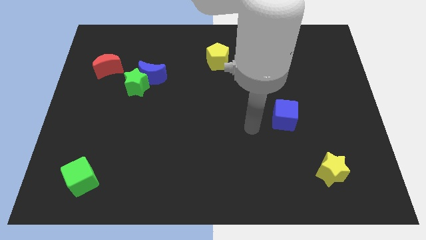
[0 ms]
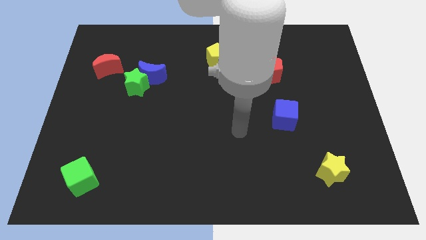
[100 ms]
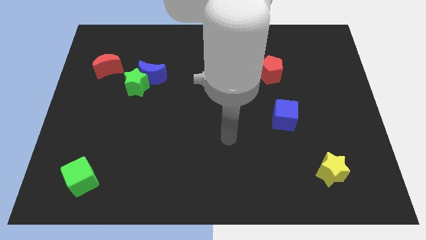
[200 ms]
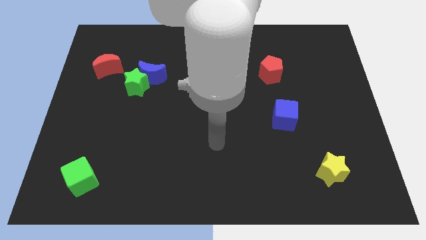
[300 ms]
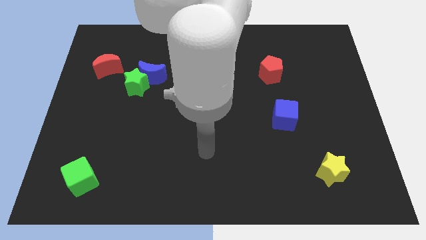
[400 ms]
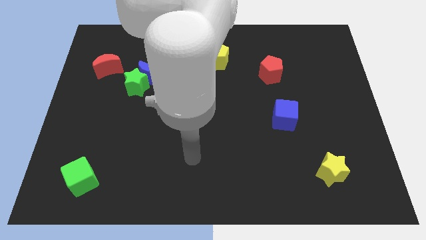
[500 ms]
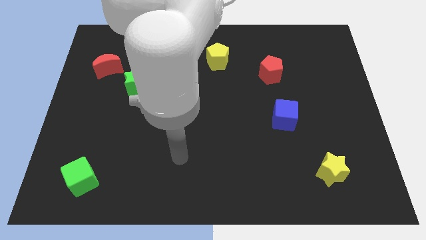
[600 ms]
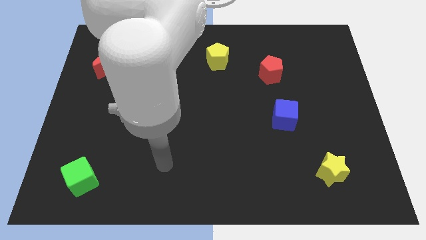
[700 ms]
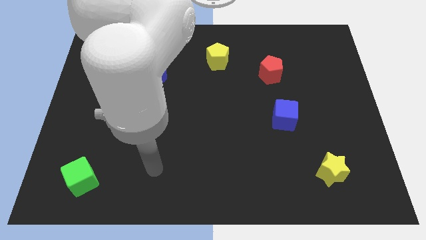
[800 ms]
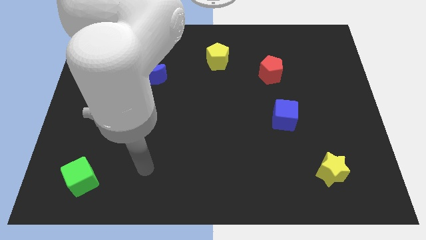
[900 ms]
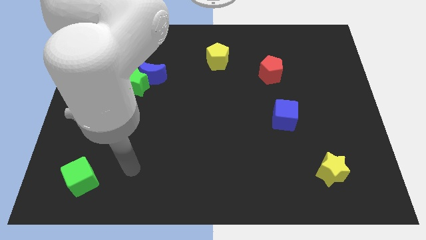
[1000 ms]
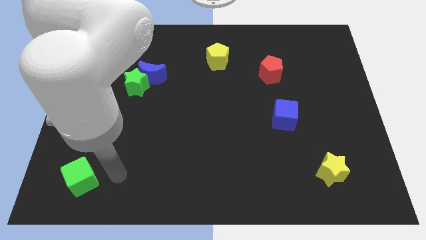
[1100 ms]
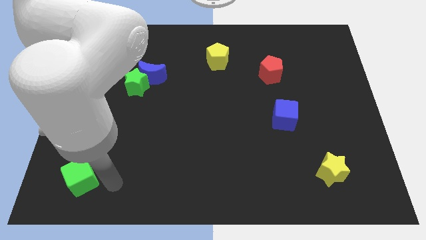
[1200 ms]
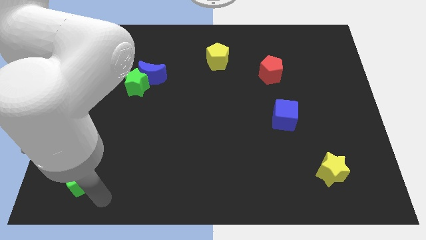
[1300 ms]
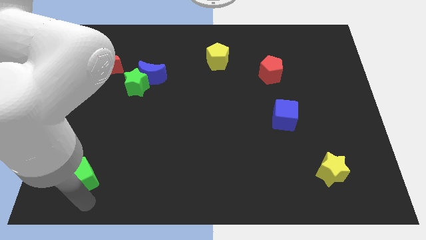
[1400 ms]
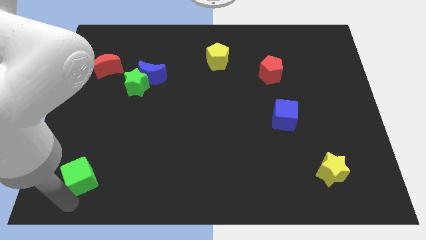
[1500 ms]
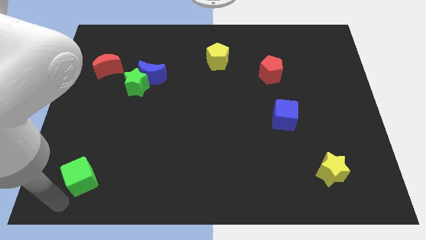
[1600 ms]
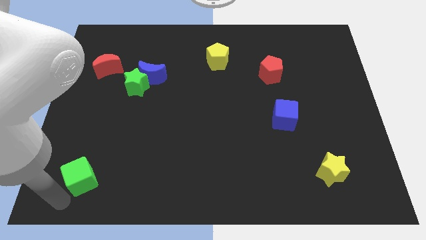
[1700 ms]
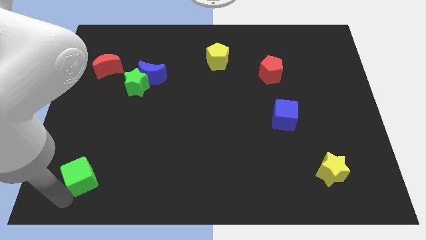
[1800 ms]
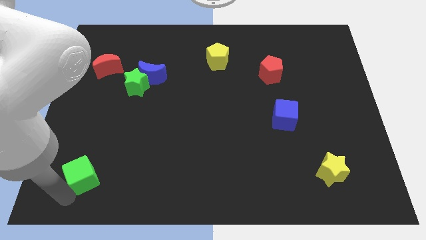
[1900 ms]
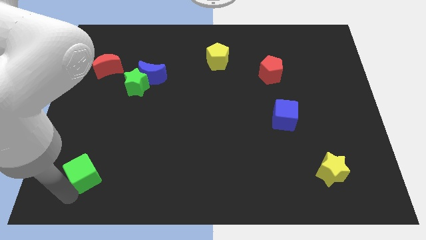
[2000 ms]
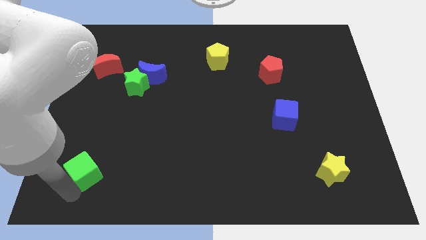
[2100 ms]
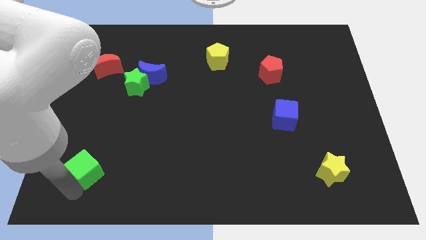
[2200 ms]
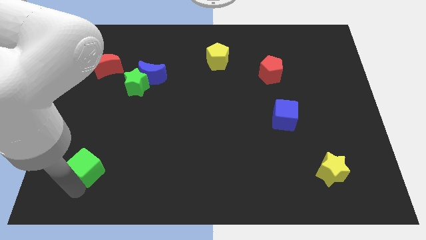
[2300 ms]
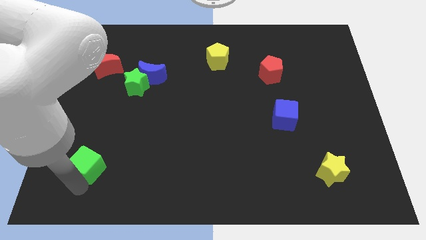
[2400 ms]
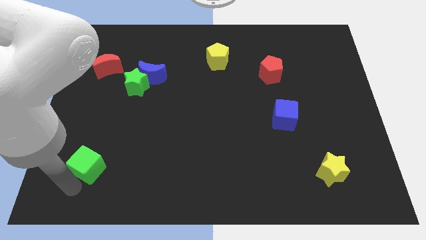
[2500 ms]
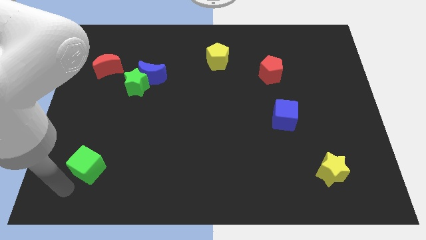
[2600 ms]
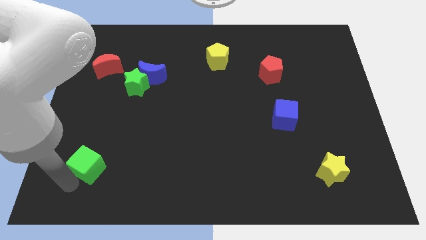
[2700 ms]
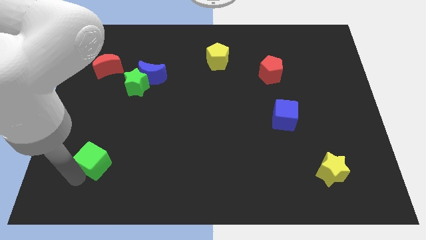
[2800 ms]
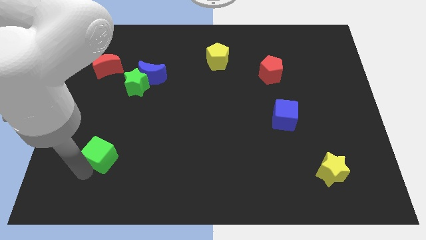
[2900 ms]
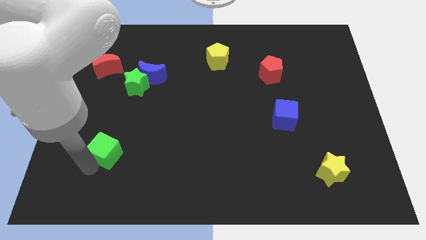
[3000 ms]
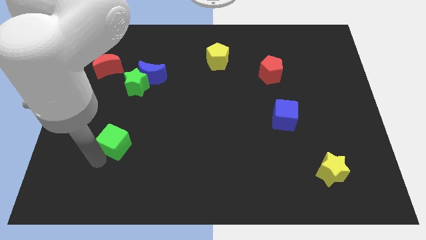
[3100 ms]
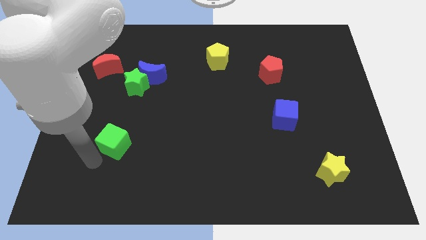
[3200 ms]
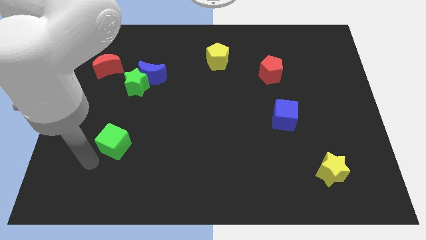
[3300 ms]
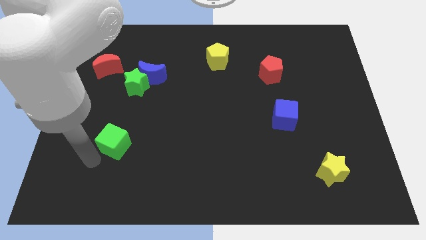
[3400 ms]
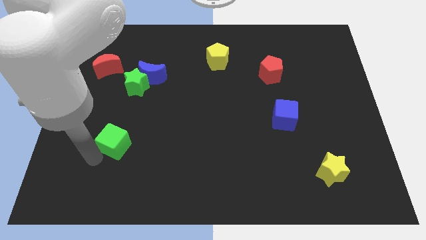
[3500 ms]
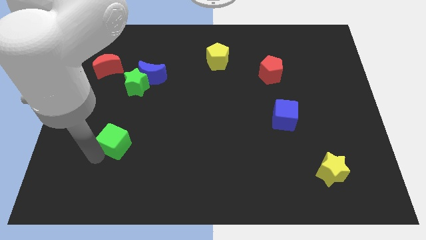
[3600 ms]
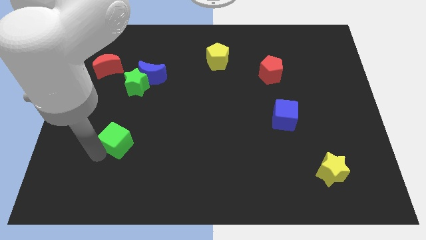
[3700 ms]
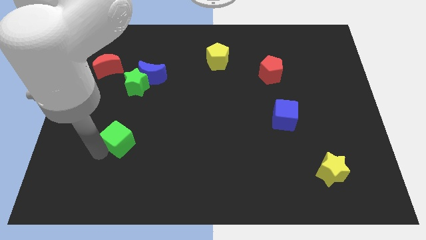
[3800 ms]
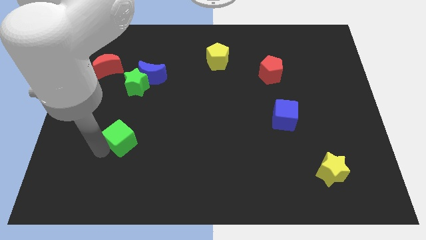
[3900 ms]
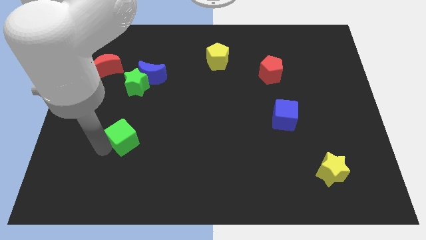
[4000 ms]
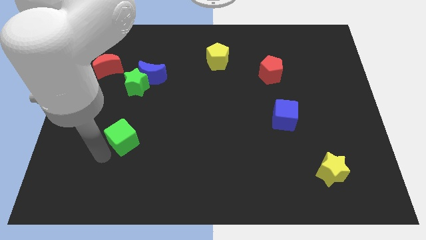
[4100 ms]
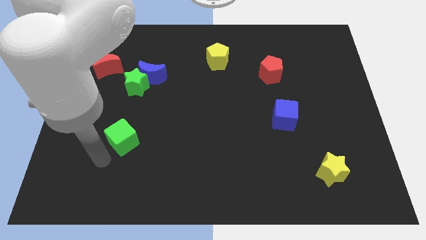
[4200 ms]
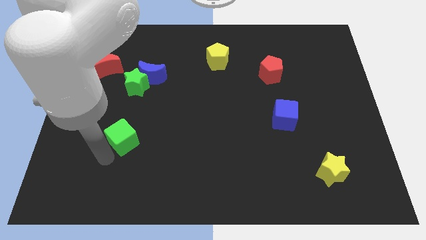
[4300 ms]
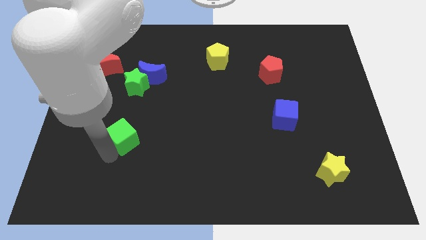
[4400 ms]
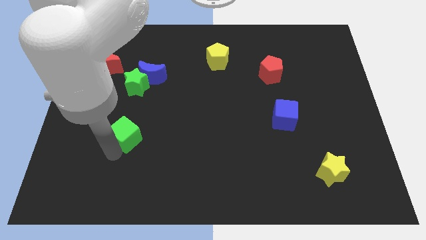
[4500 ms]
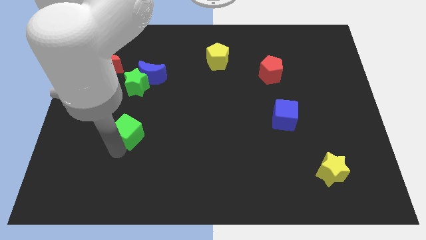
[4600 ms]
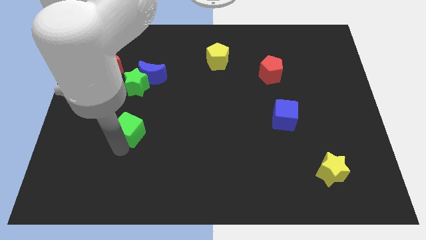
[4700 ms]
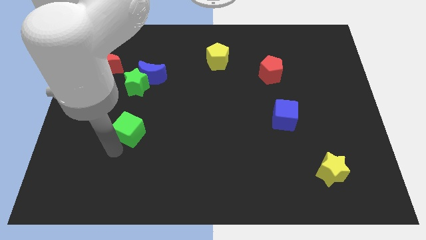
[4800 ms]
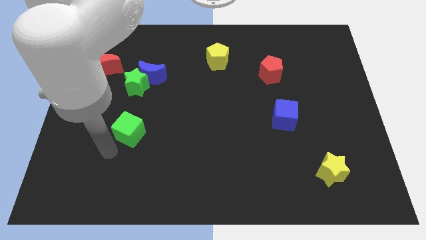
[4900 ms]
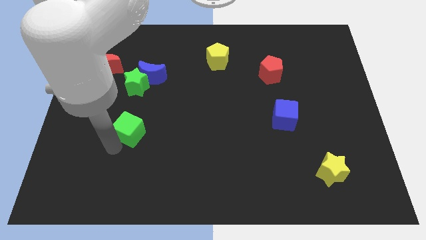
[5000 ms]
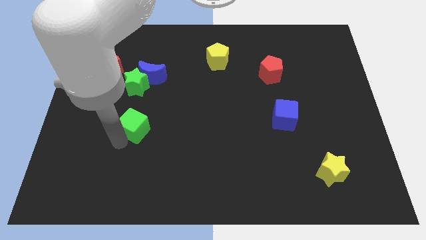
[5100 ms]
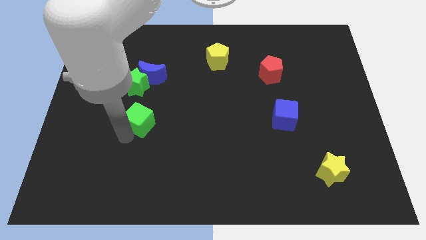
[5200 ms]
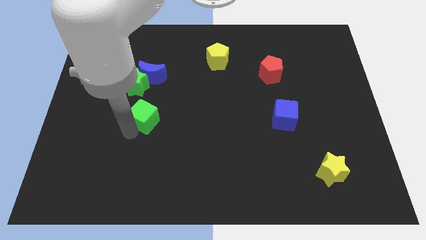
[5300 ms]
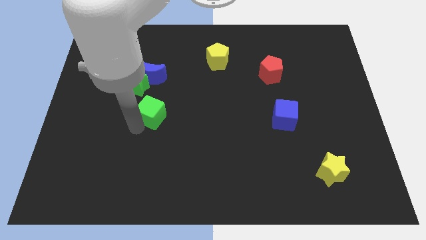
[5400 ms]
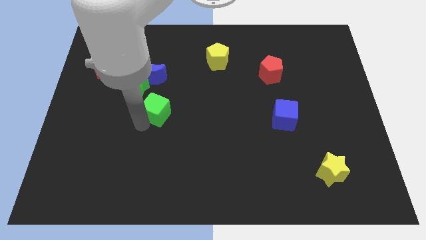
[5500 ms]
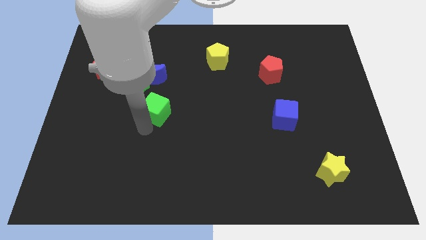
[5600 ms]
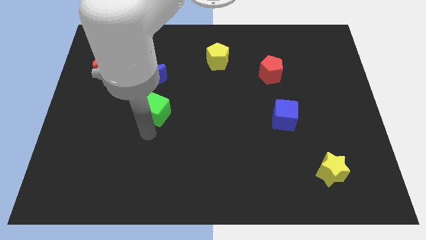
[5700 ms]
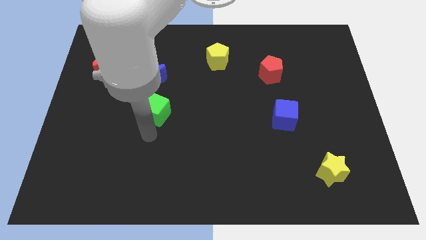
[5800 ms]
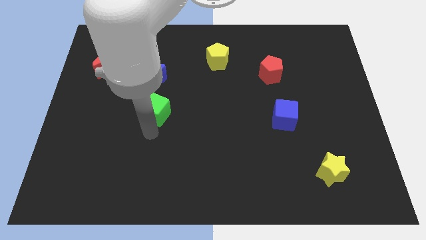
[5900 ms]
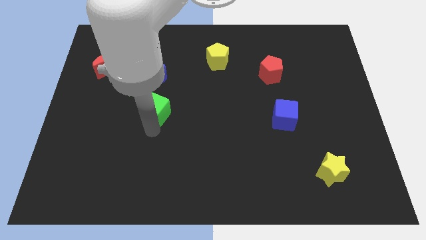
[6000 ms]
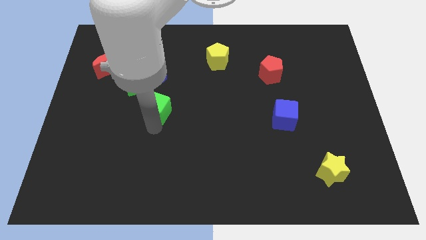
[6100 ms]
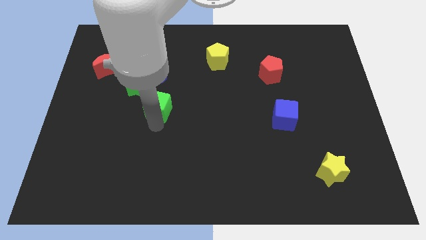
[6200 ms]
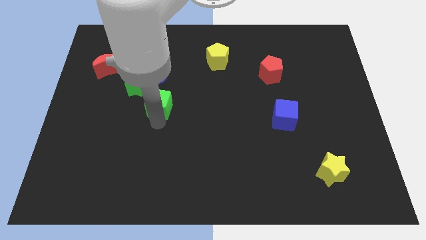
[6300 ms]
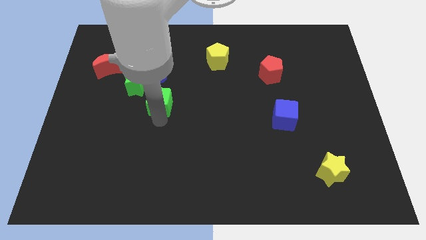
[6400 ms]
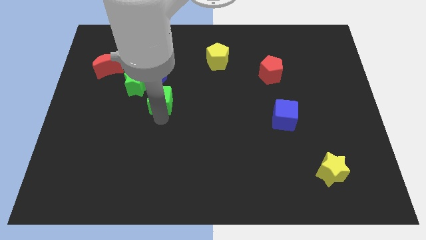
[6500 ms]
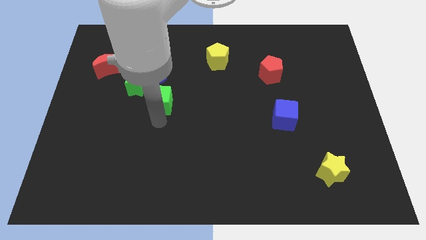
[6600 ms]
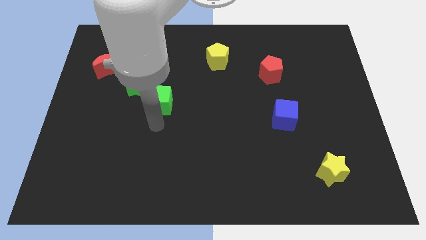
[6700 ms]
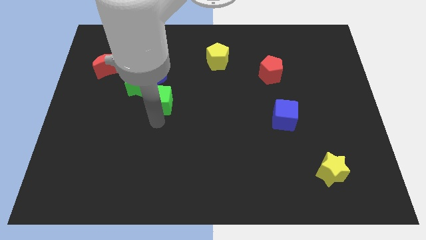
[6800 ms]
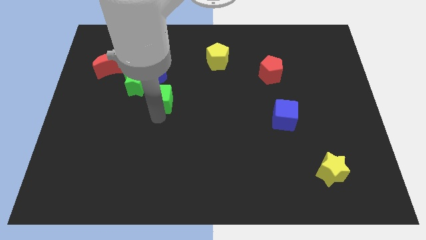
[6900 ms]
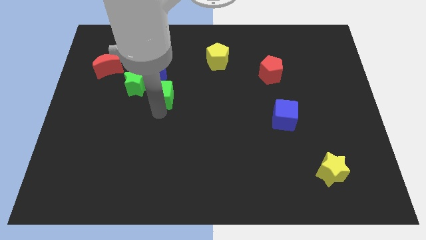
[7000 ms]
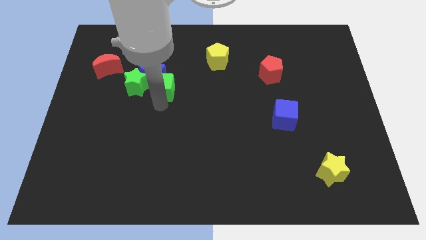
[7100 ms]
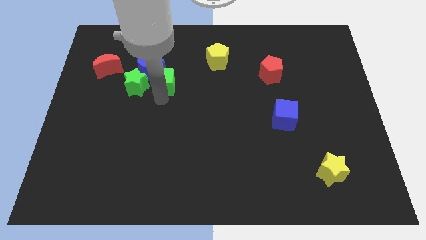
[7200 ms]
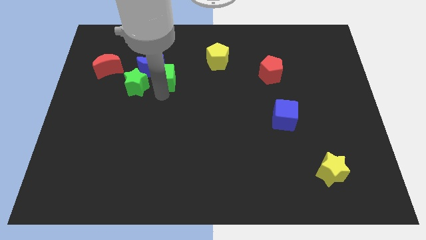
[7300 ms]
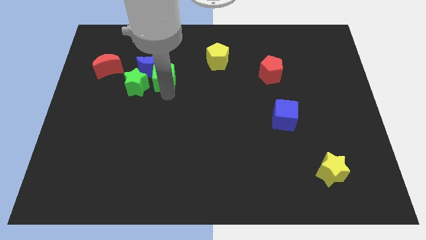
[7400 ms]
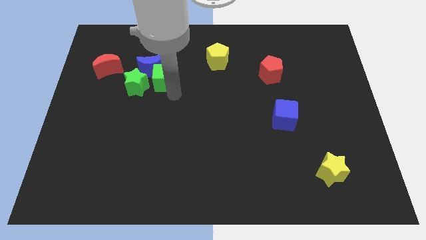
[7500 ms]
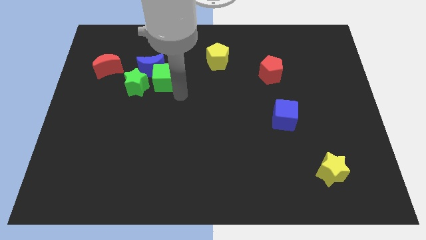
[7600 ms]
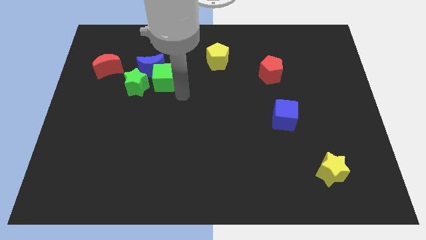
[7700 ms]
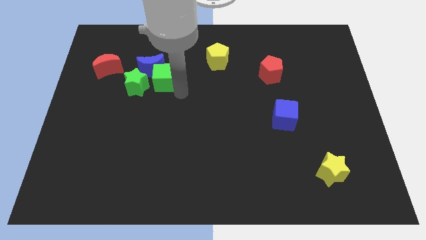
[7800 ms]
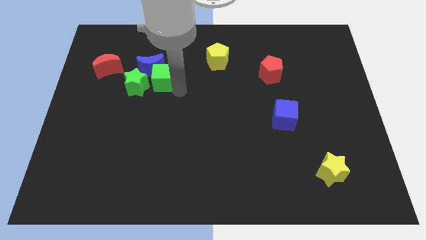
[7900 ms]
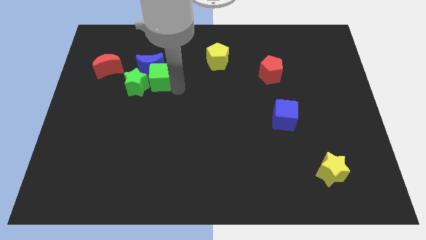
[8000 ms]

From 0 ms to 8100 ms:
move the green cube to the right side of the red moon
